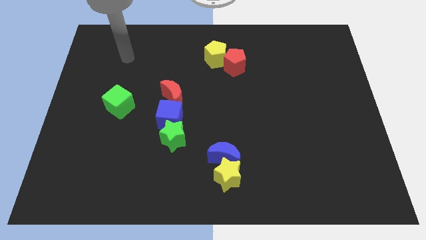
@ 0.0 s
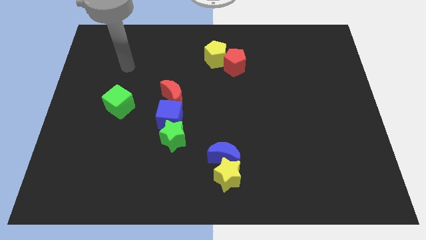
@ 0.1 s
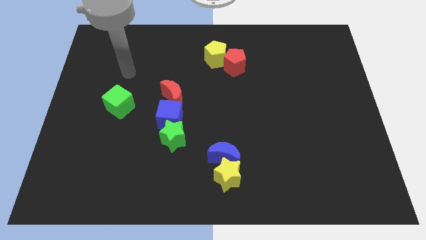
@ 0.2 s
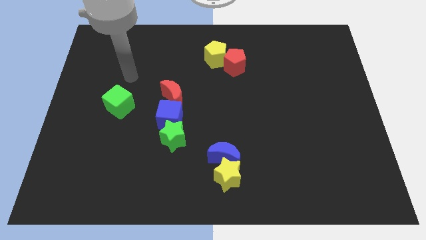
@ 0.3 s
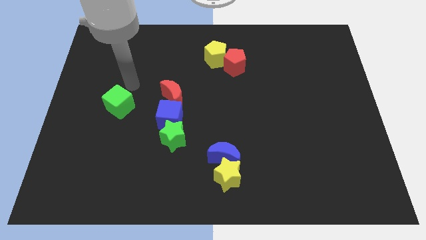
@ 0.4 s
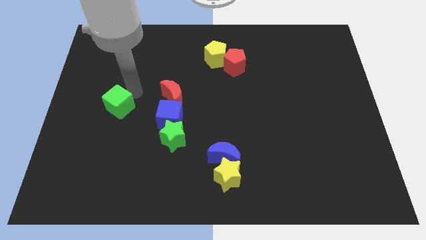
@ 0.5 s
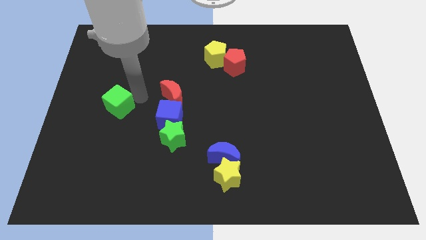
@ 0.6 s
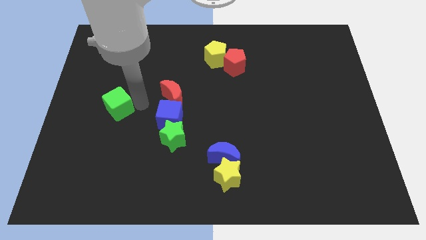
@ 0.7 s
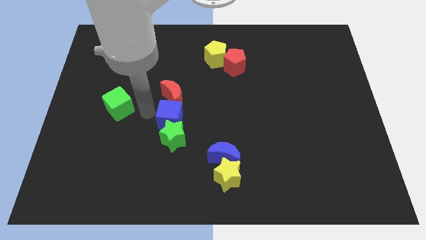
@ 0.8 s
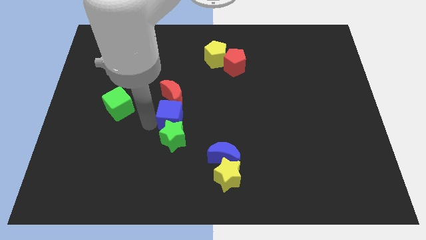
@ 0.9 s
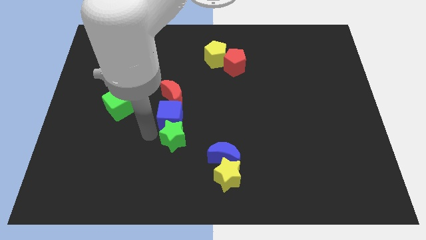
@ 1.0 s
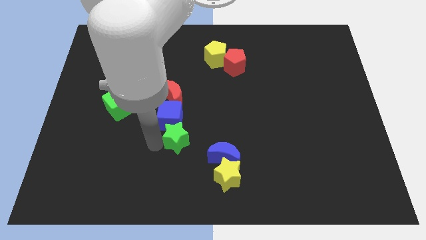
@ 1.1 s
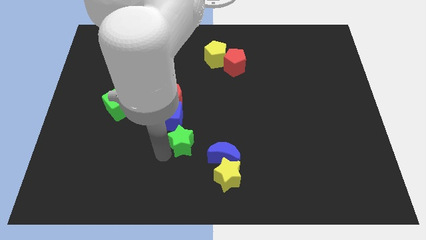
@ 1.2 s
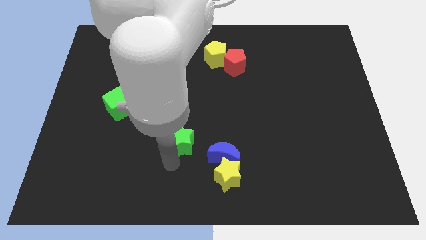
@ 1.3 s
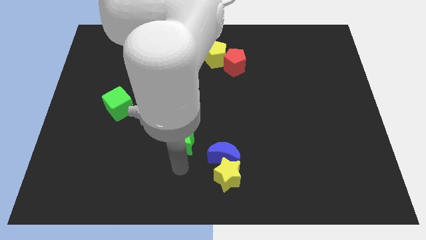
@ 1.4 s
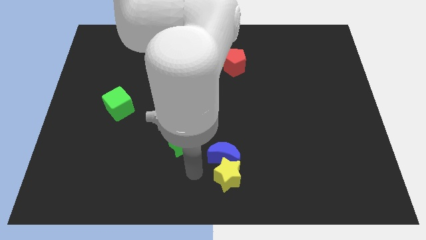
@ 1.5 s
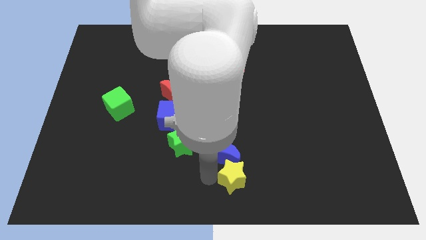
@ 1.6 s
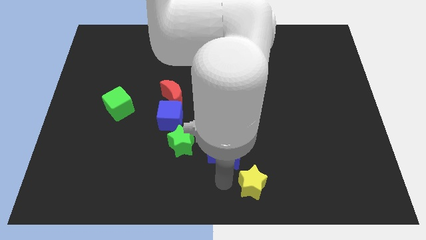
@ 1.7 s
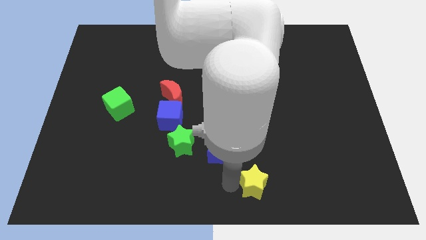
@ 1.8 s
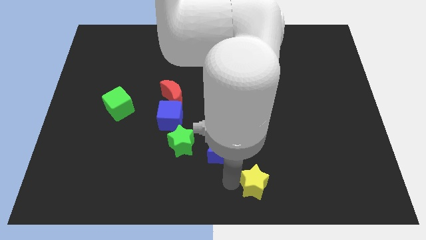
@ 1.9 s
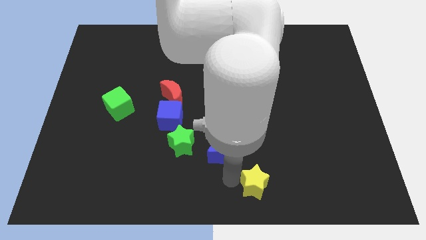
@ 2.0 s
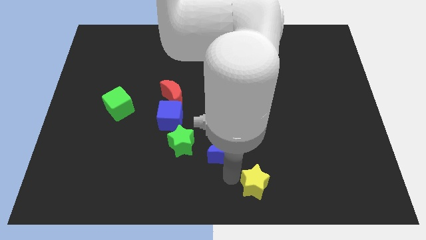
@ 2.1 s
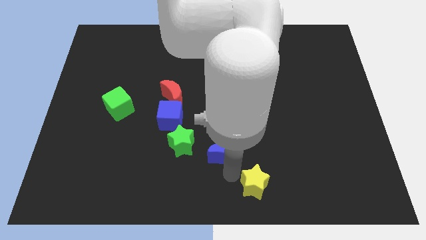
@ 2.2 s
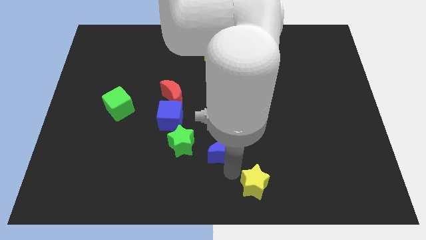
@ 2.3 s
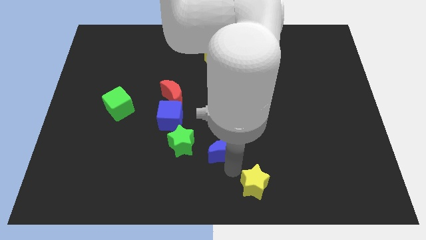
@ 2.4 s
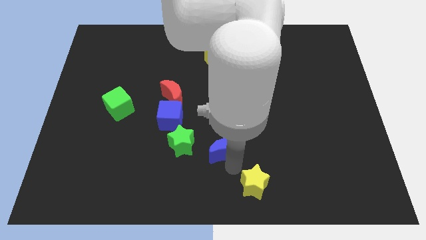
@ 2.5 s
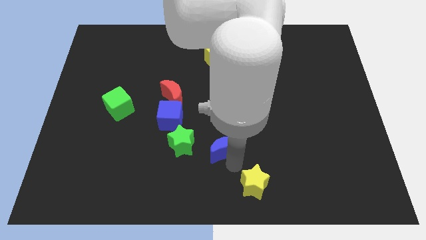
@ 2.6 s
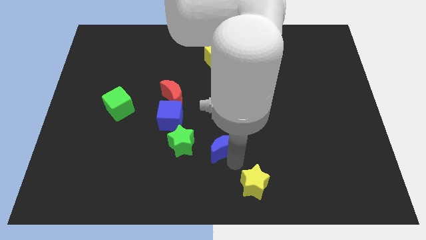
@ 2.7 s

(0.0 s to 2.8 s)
move the blue moon away from the yellow star

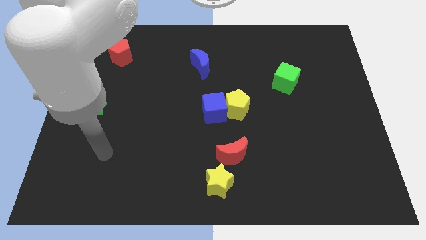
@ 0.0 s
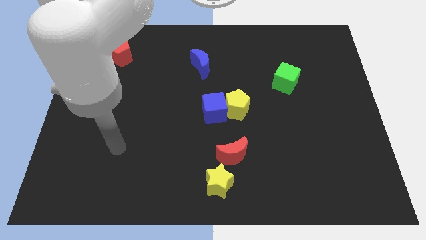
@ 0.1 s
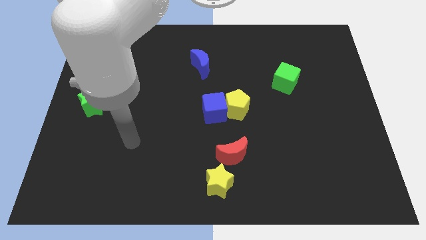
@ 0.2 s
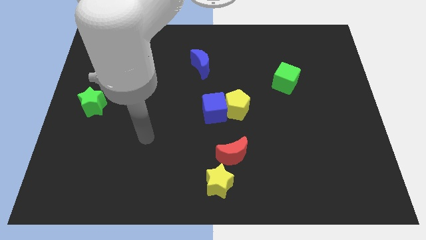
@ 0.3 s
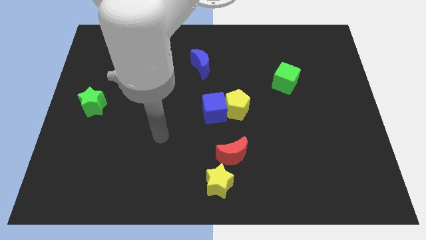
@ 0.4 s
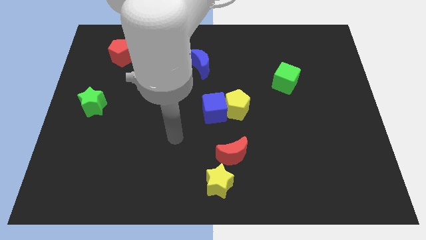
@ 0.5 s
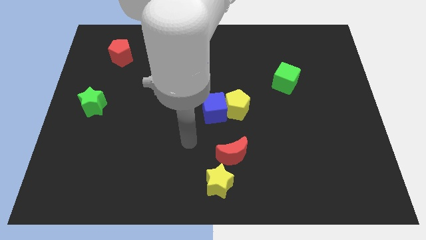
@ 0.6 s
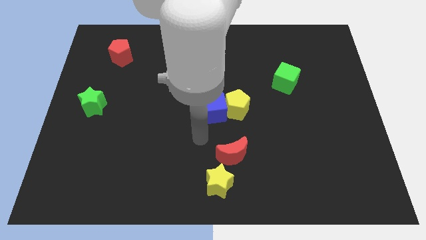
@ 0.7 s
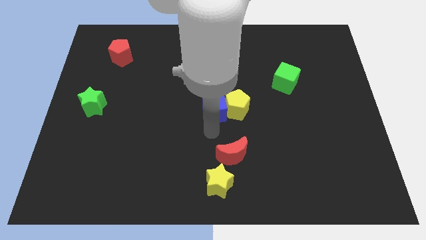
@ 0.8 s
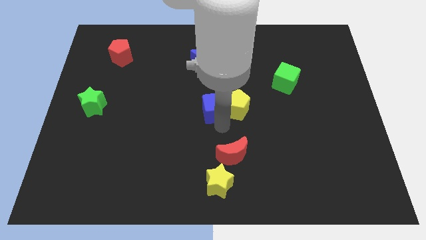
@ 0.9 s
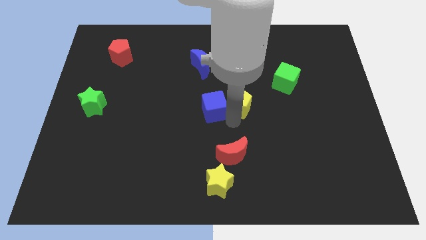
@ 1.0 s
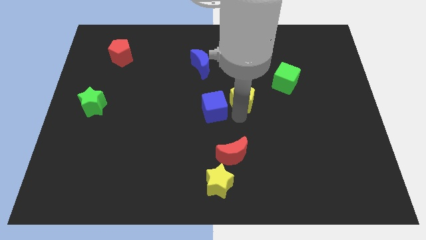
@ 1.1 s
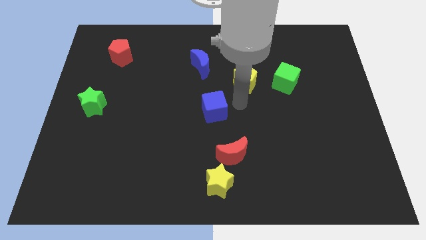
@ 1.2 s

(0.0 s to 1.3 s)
separate the blue cube from the yellow pentagon

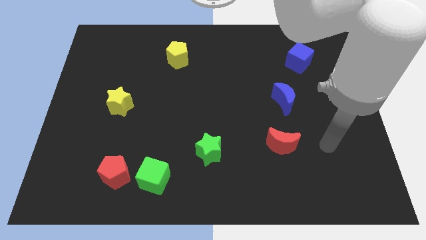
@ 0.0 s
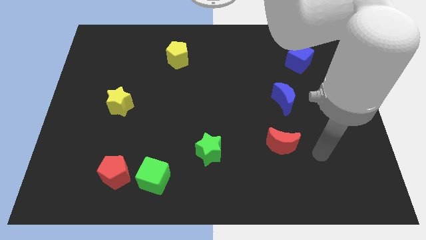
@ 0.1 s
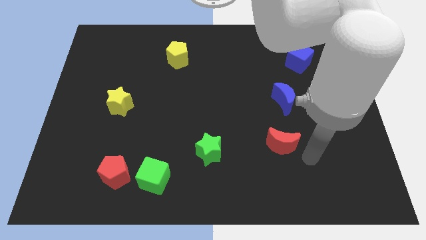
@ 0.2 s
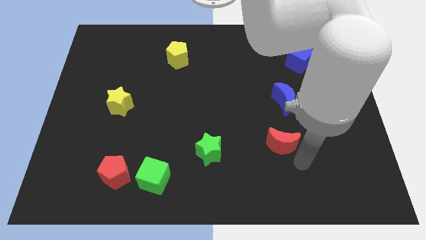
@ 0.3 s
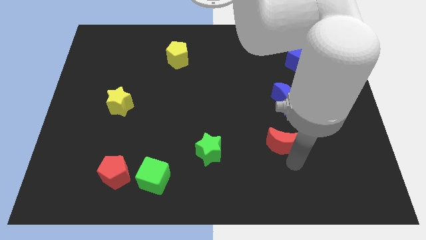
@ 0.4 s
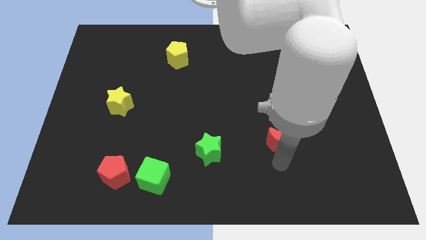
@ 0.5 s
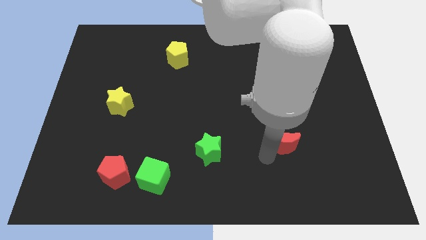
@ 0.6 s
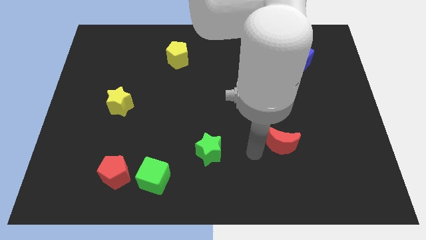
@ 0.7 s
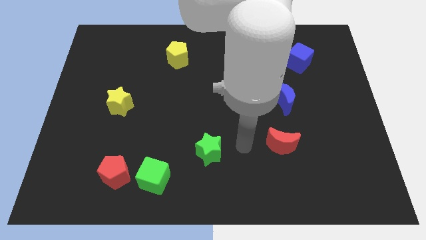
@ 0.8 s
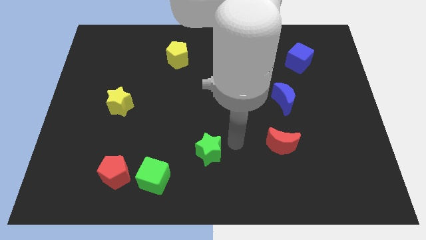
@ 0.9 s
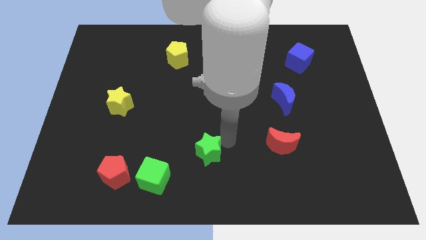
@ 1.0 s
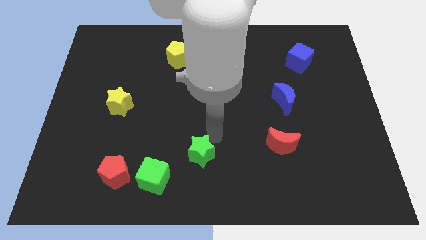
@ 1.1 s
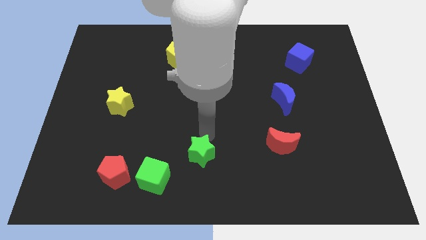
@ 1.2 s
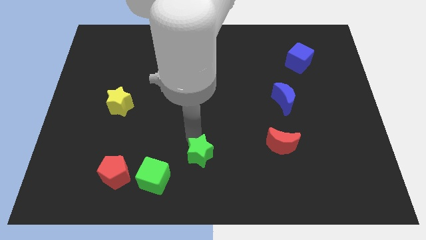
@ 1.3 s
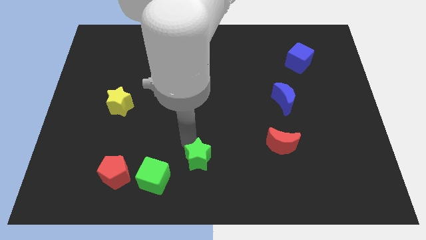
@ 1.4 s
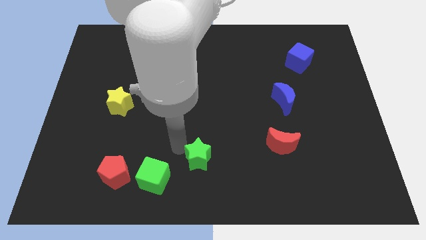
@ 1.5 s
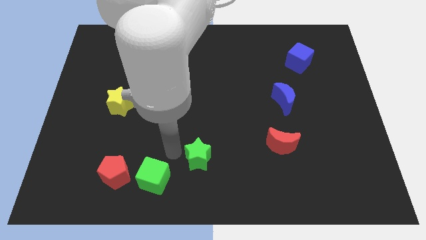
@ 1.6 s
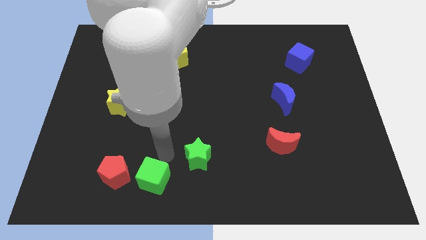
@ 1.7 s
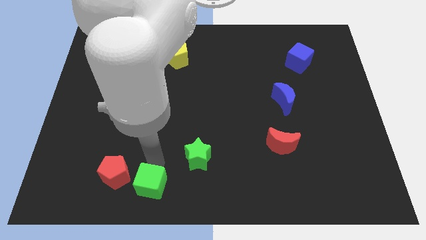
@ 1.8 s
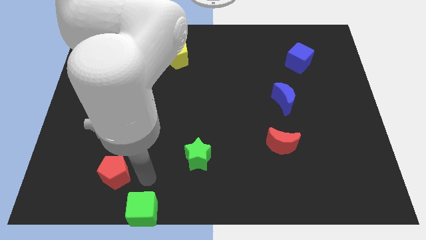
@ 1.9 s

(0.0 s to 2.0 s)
separate the red pentagon from the green cube

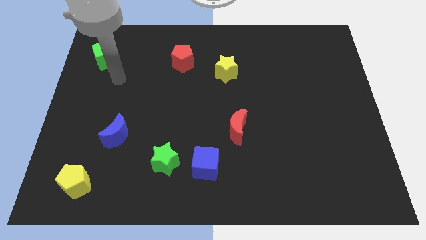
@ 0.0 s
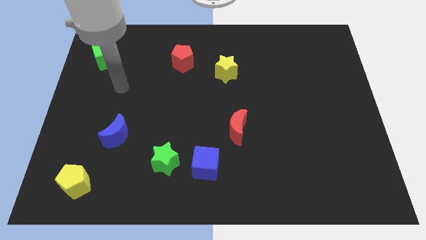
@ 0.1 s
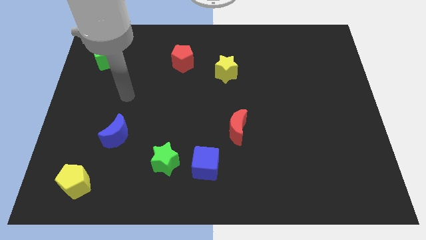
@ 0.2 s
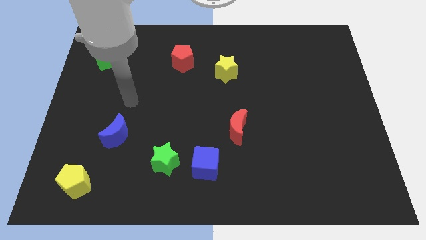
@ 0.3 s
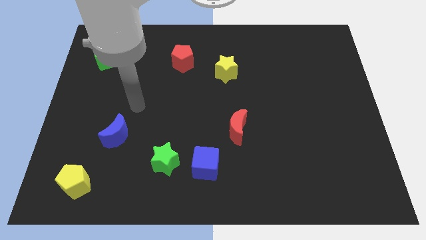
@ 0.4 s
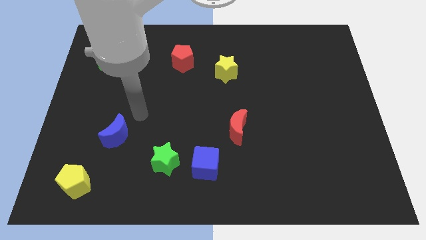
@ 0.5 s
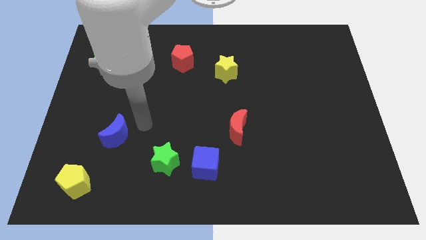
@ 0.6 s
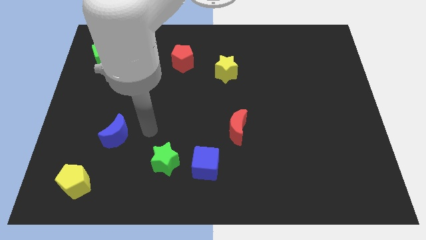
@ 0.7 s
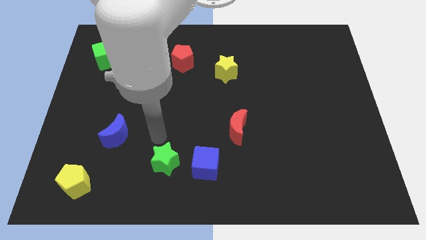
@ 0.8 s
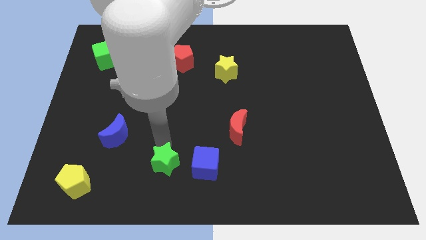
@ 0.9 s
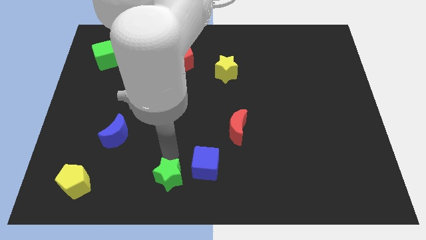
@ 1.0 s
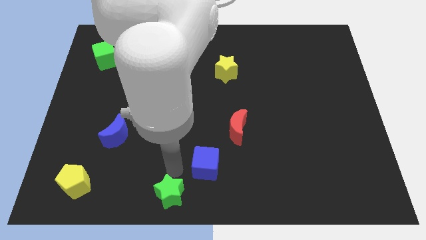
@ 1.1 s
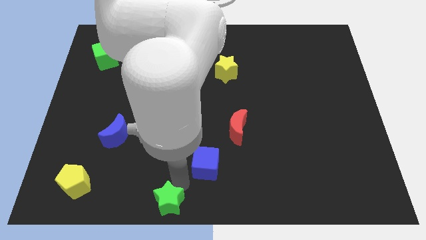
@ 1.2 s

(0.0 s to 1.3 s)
move the blue cube away from the green star

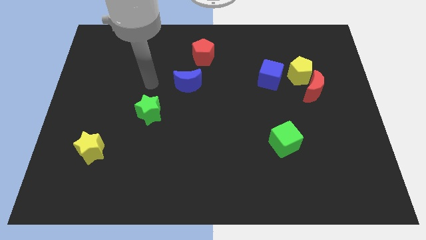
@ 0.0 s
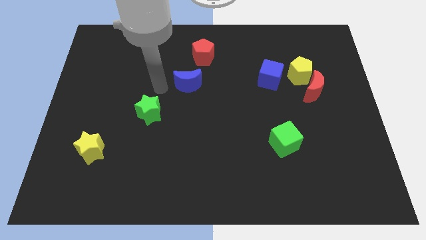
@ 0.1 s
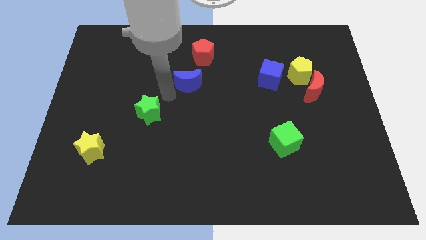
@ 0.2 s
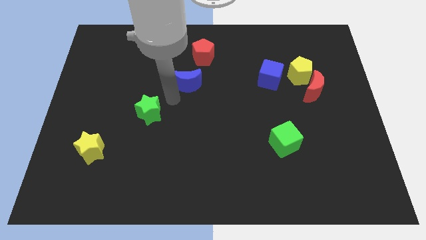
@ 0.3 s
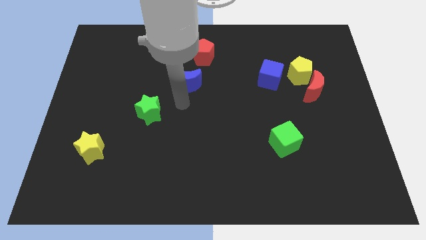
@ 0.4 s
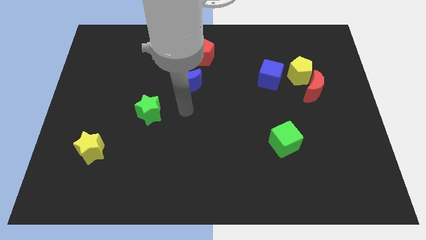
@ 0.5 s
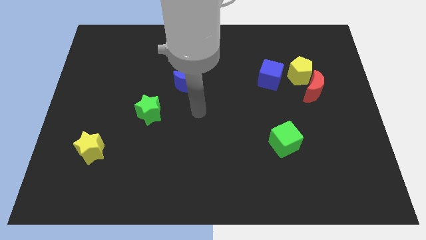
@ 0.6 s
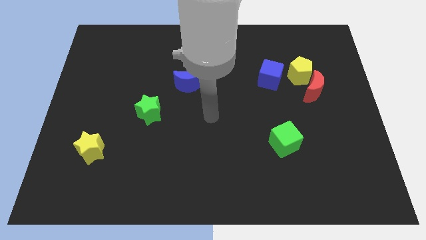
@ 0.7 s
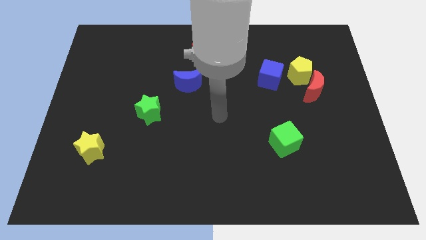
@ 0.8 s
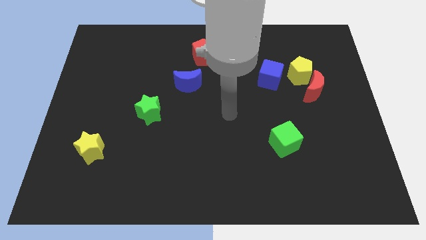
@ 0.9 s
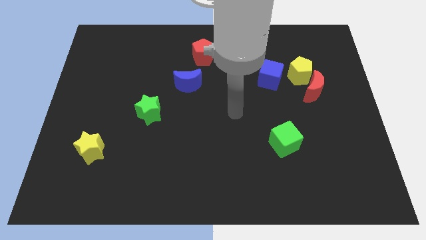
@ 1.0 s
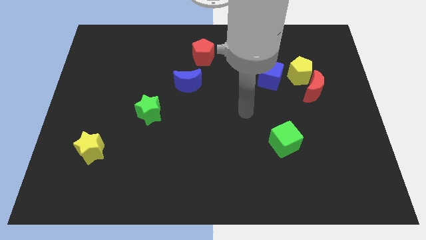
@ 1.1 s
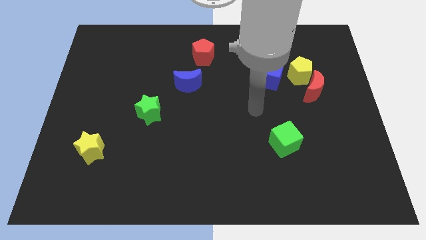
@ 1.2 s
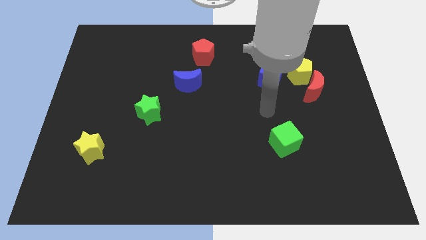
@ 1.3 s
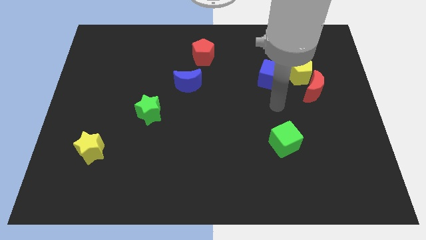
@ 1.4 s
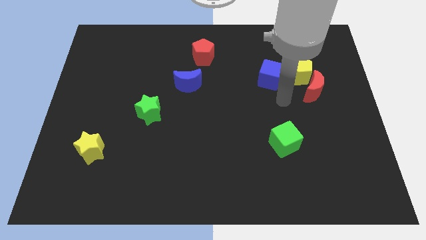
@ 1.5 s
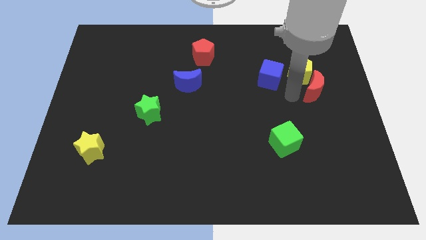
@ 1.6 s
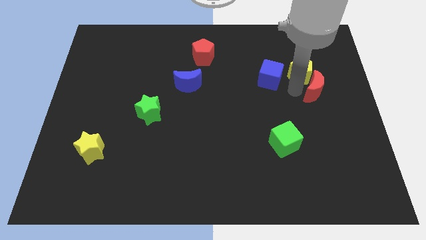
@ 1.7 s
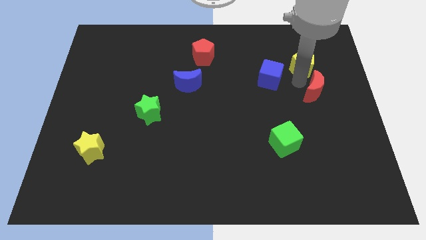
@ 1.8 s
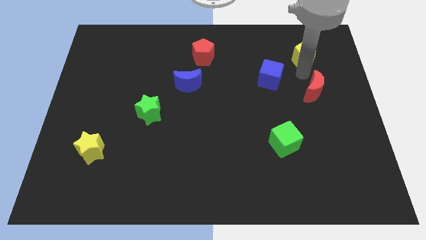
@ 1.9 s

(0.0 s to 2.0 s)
pull the red moon apart from the yellow pentagon
